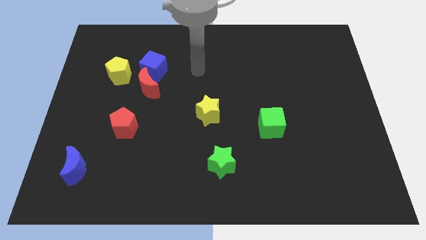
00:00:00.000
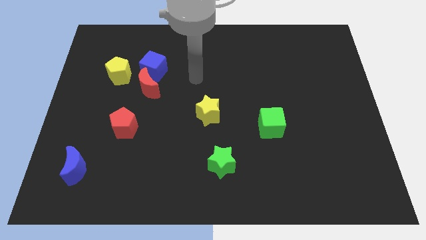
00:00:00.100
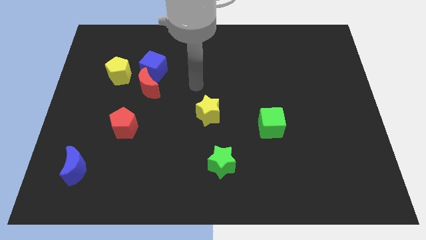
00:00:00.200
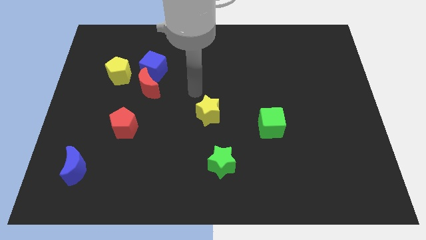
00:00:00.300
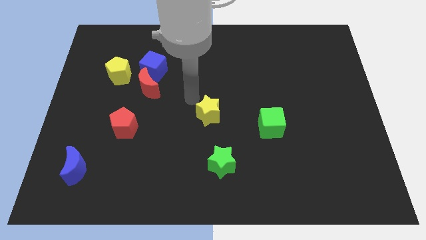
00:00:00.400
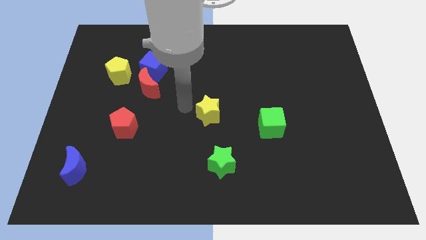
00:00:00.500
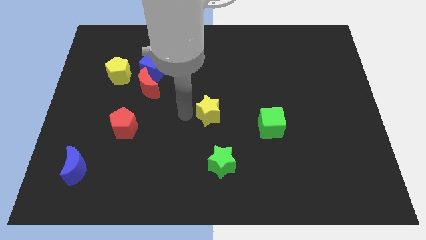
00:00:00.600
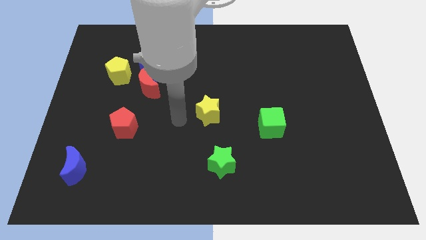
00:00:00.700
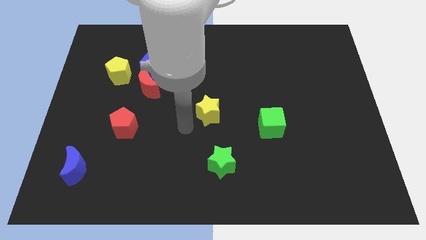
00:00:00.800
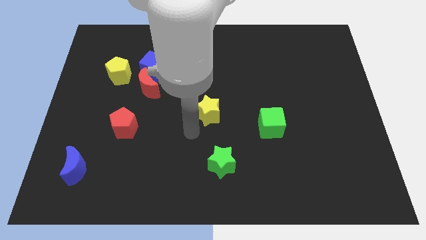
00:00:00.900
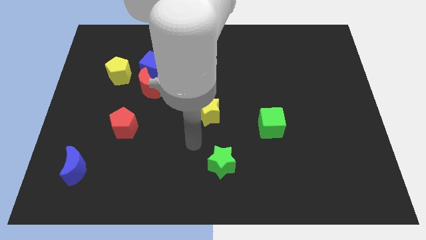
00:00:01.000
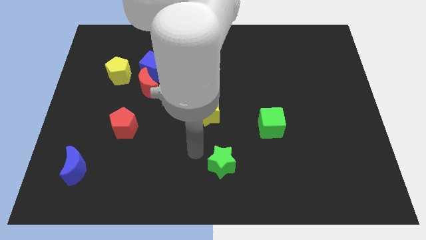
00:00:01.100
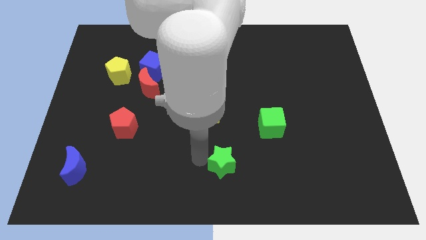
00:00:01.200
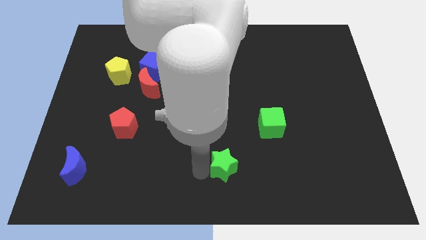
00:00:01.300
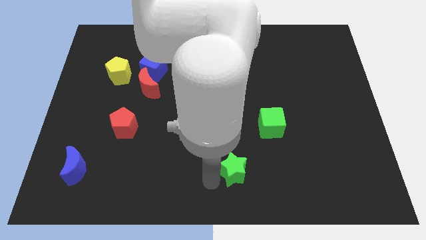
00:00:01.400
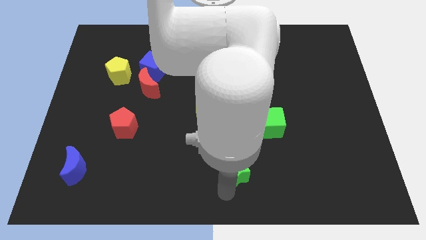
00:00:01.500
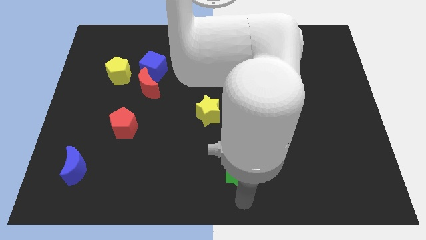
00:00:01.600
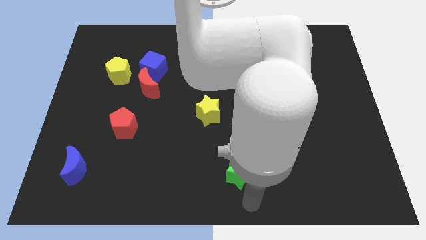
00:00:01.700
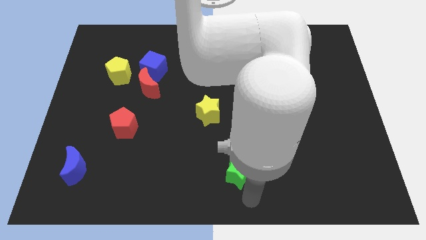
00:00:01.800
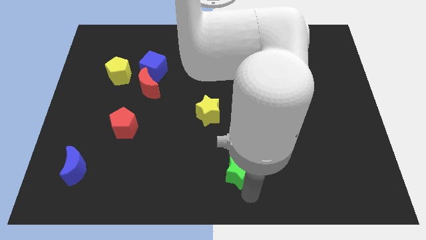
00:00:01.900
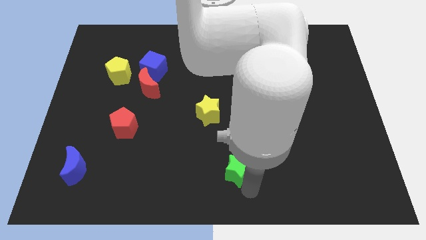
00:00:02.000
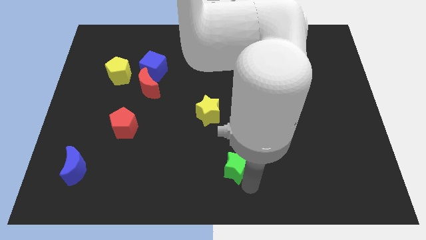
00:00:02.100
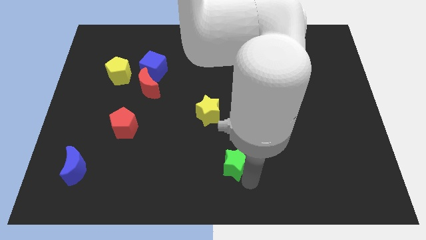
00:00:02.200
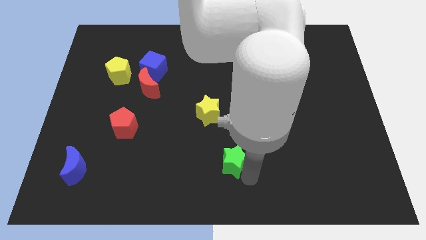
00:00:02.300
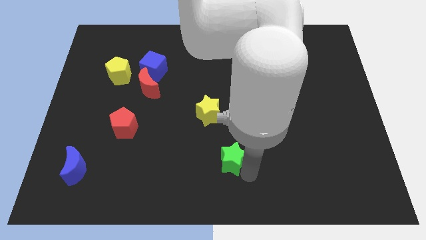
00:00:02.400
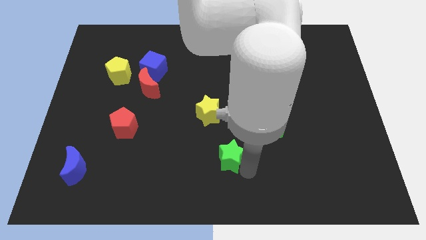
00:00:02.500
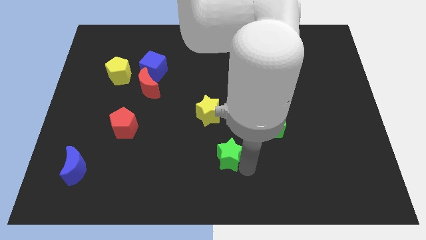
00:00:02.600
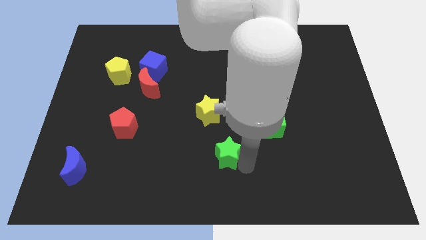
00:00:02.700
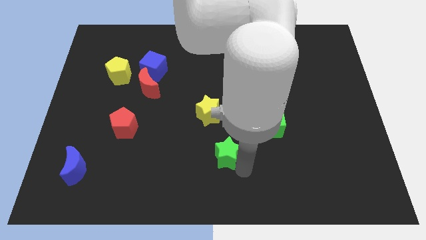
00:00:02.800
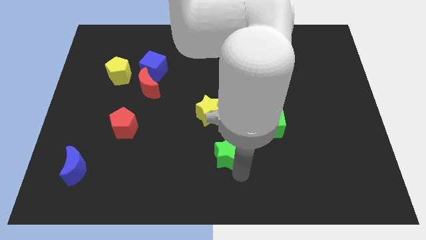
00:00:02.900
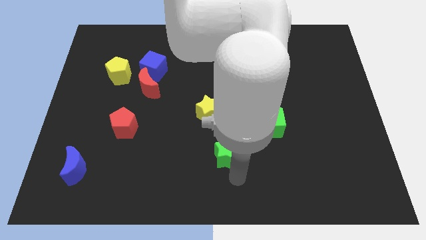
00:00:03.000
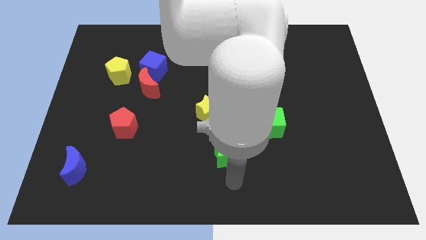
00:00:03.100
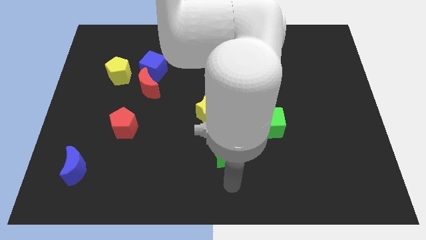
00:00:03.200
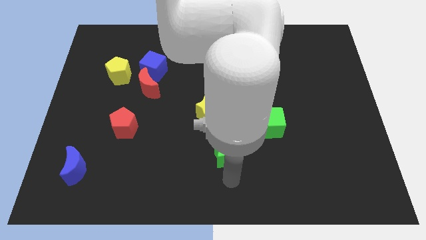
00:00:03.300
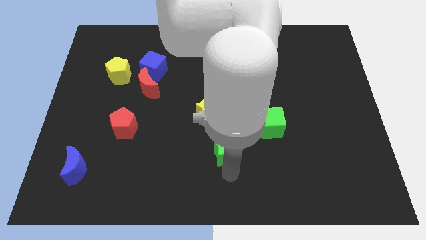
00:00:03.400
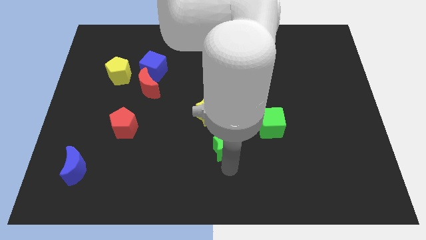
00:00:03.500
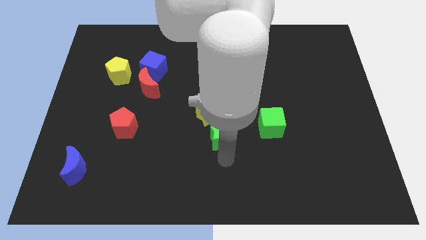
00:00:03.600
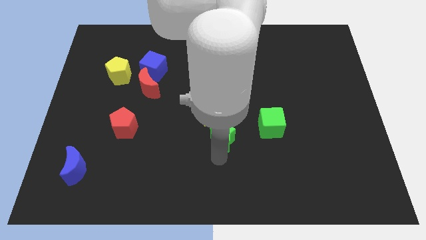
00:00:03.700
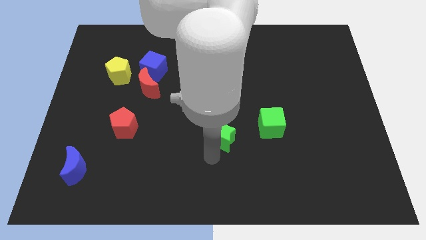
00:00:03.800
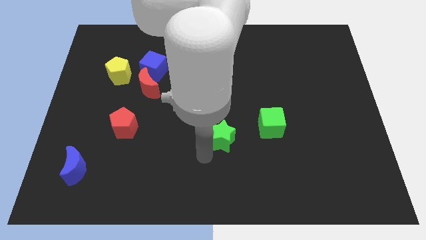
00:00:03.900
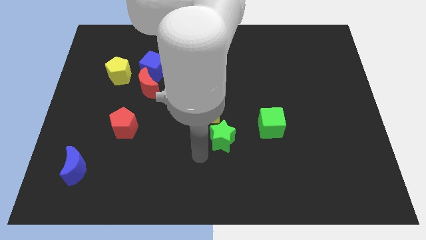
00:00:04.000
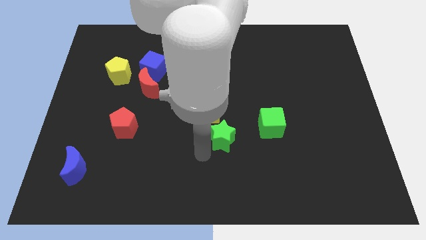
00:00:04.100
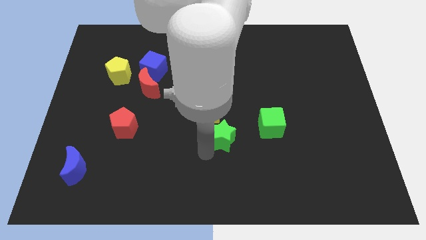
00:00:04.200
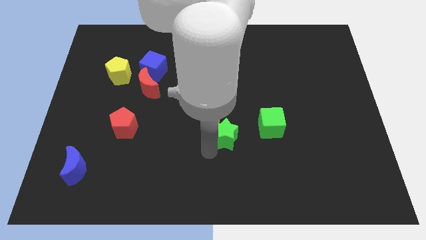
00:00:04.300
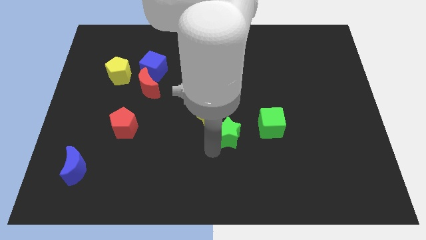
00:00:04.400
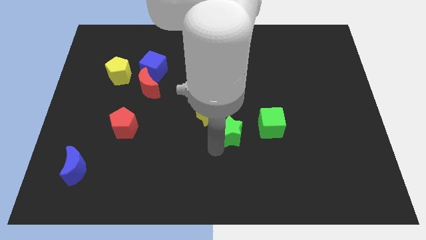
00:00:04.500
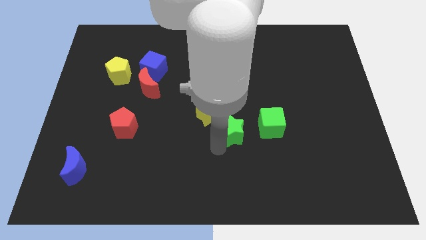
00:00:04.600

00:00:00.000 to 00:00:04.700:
move the green star upwards and then to the right a bit

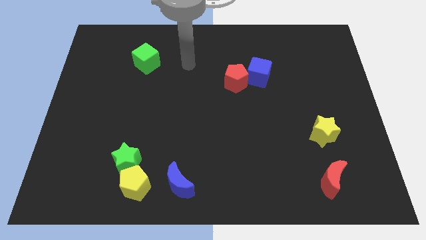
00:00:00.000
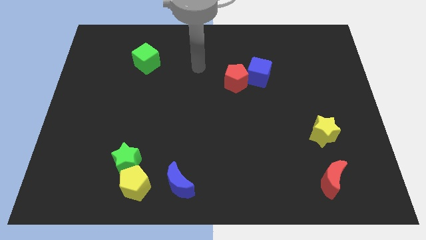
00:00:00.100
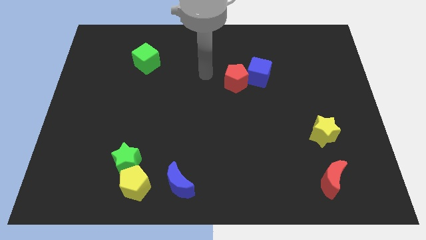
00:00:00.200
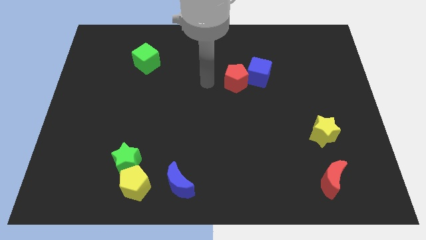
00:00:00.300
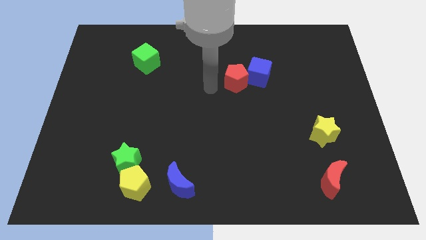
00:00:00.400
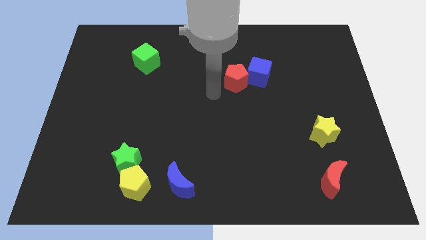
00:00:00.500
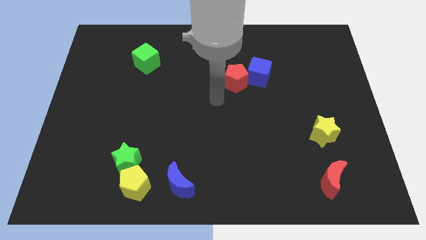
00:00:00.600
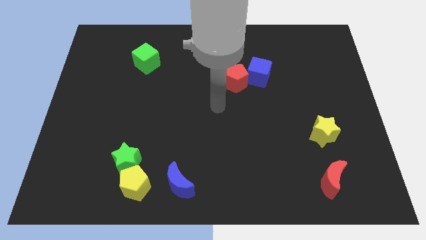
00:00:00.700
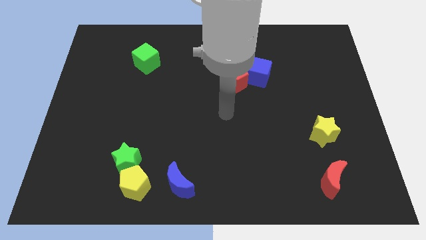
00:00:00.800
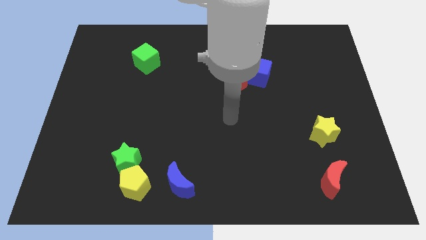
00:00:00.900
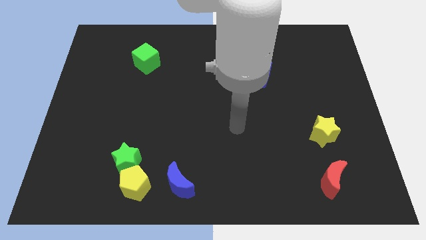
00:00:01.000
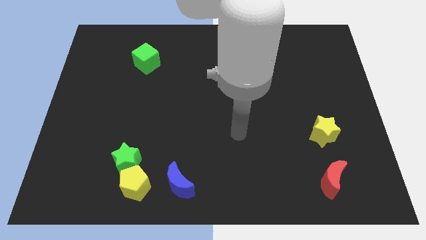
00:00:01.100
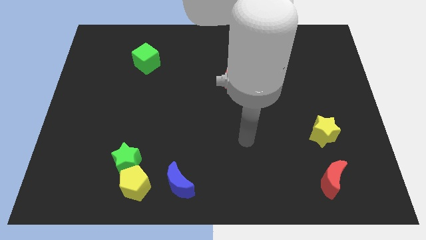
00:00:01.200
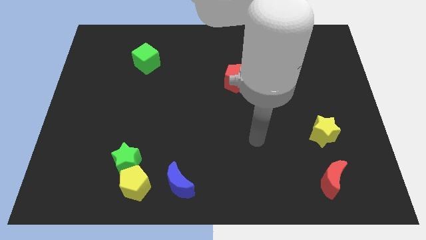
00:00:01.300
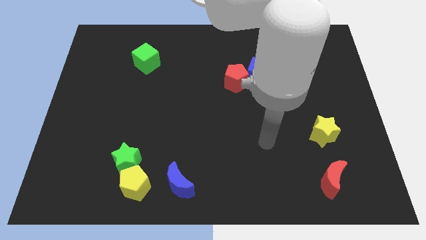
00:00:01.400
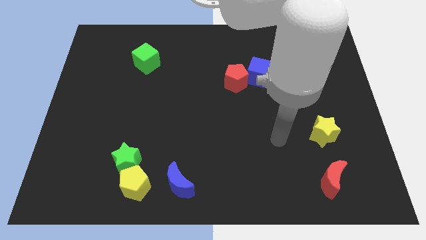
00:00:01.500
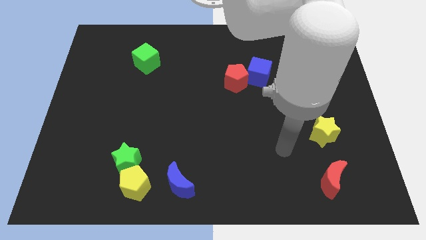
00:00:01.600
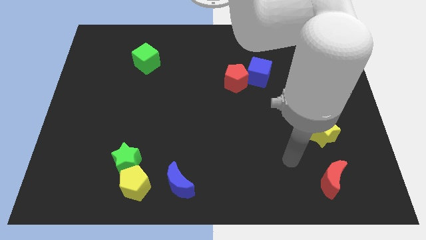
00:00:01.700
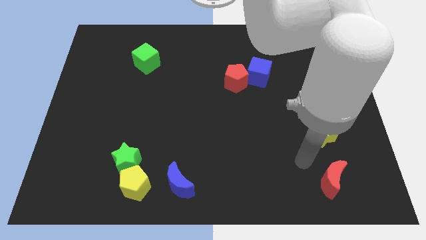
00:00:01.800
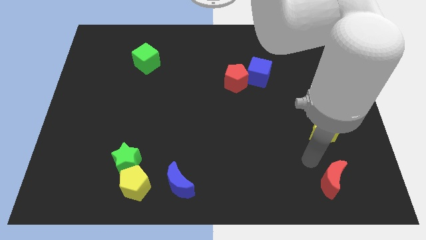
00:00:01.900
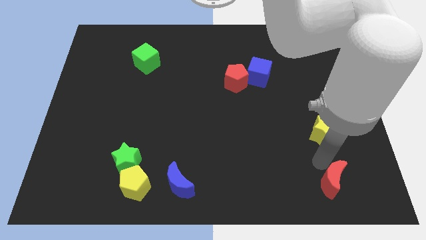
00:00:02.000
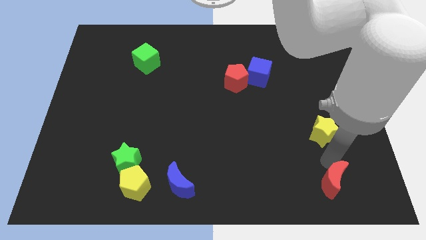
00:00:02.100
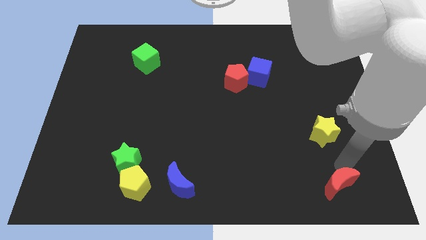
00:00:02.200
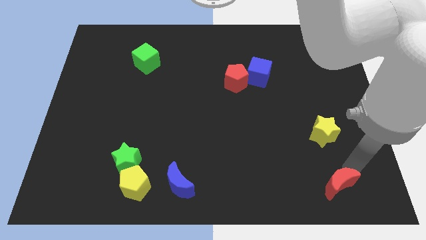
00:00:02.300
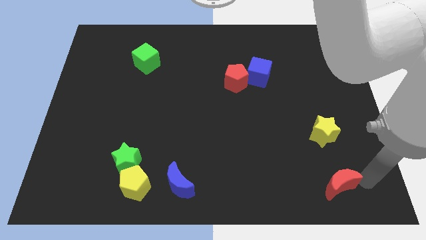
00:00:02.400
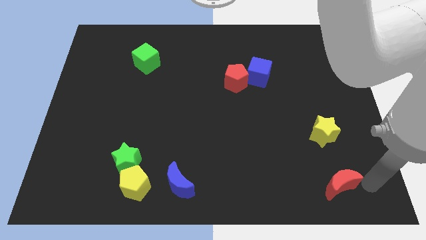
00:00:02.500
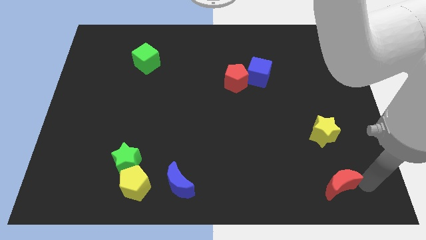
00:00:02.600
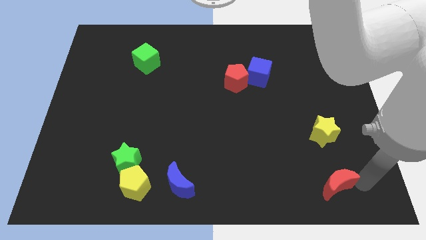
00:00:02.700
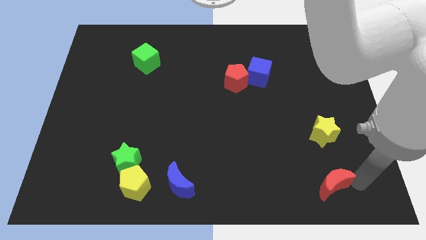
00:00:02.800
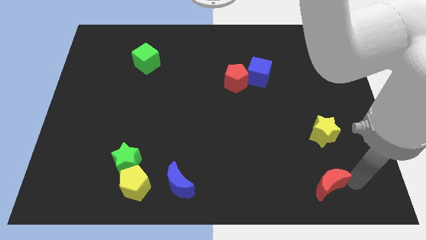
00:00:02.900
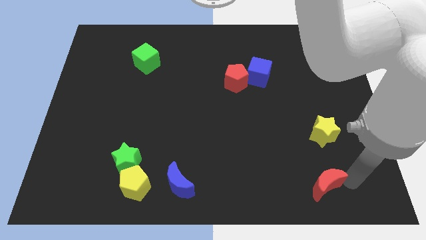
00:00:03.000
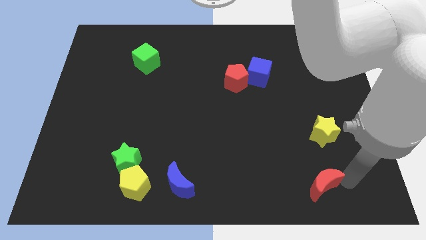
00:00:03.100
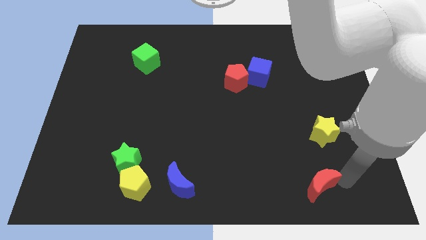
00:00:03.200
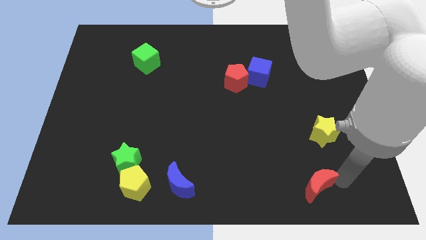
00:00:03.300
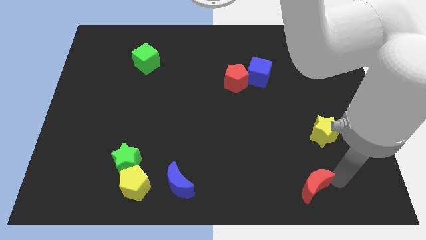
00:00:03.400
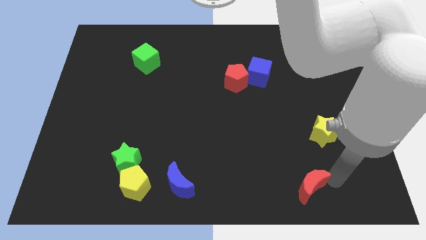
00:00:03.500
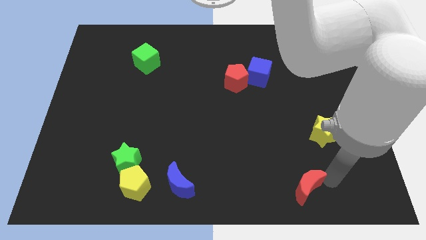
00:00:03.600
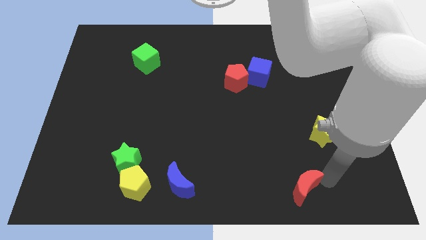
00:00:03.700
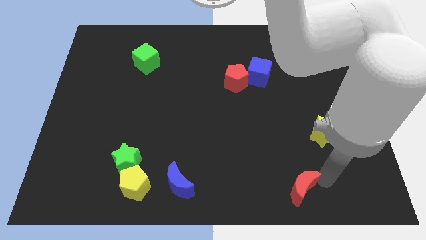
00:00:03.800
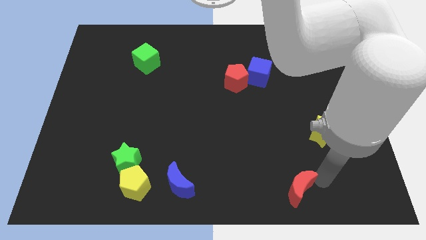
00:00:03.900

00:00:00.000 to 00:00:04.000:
move the red moon to the left slightly
